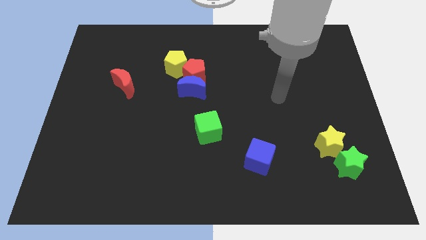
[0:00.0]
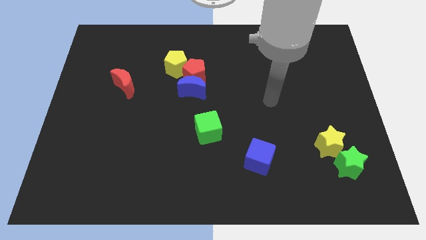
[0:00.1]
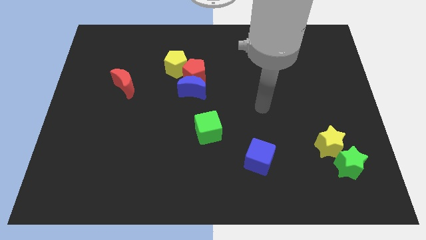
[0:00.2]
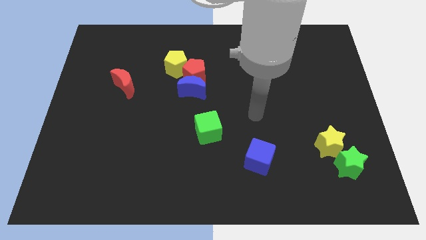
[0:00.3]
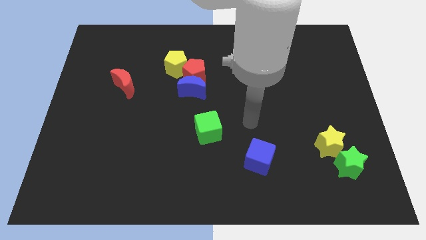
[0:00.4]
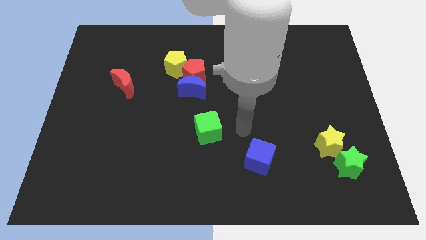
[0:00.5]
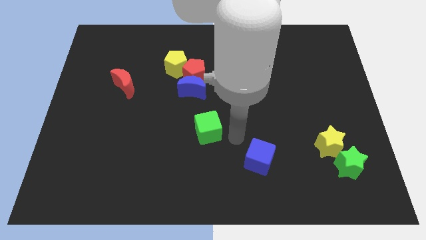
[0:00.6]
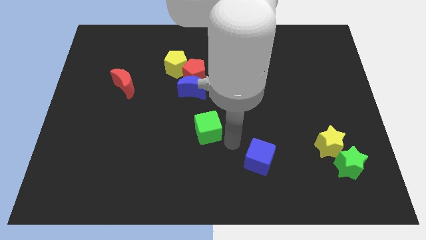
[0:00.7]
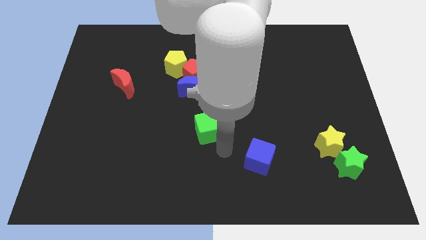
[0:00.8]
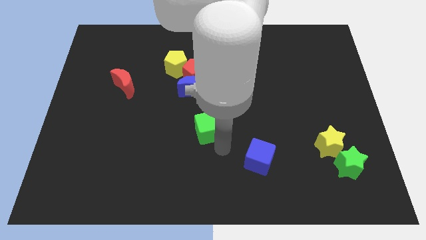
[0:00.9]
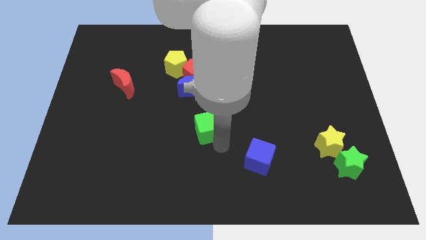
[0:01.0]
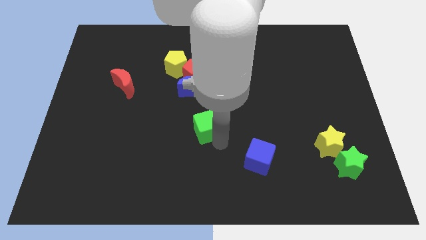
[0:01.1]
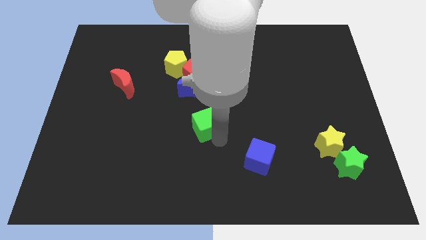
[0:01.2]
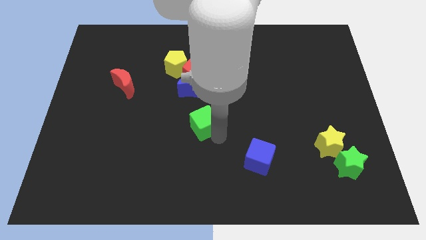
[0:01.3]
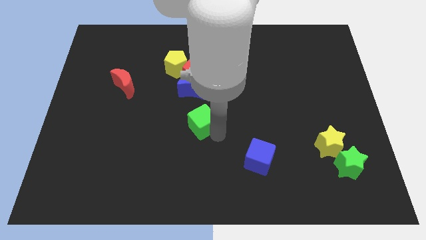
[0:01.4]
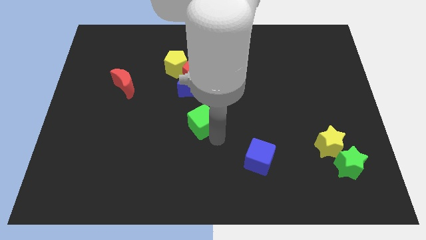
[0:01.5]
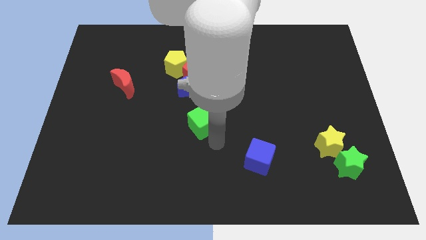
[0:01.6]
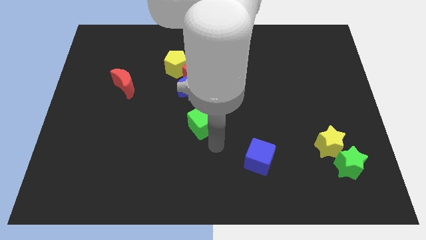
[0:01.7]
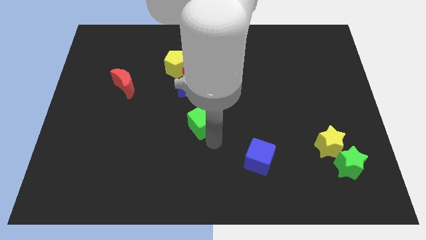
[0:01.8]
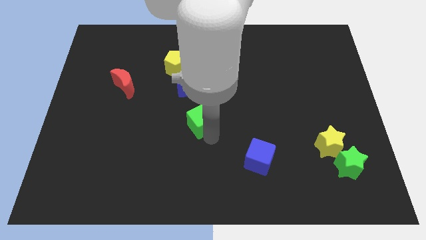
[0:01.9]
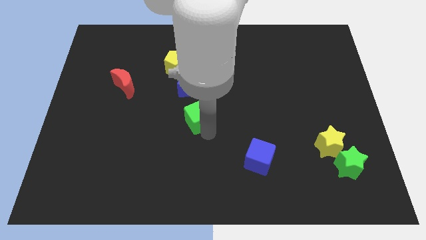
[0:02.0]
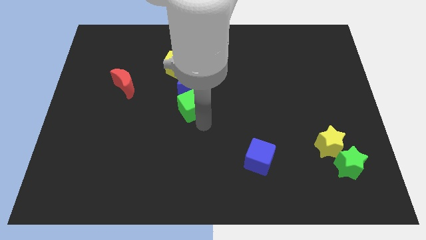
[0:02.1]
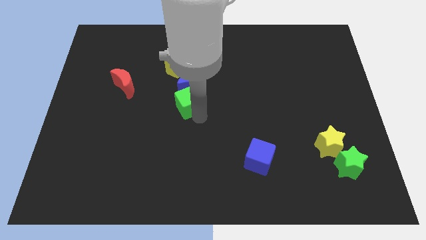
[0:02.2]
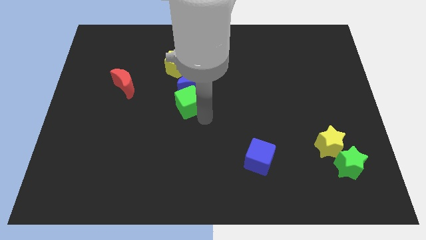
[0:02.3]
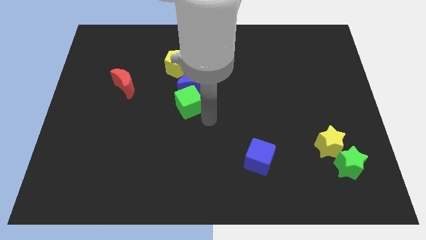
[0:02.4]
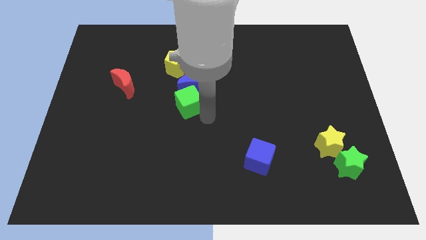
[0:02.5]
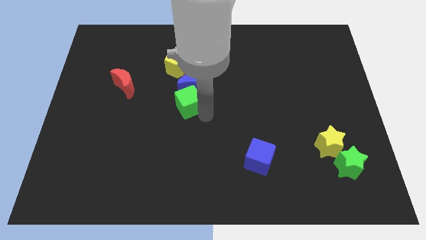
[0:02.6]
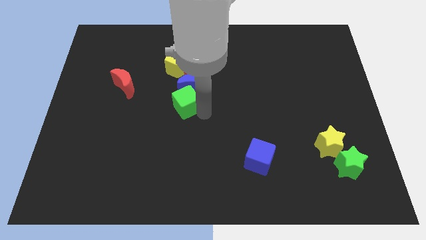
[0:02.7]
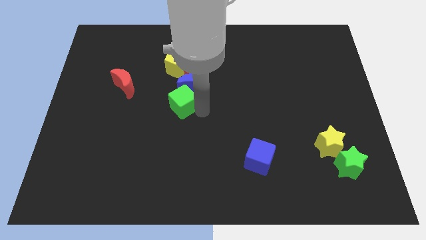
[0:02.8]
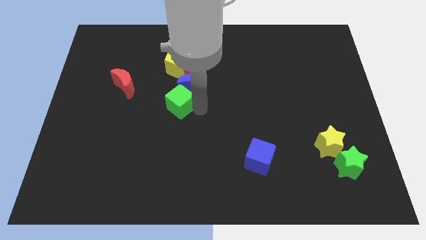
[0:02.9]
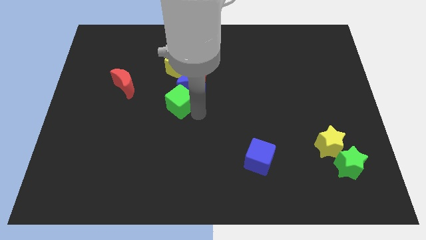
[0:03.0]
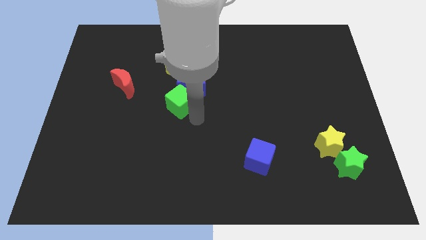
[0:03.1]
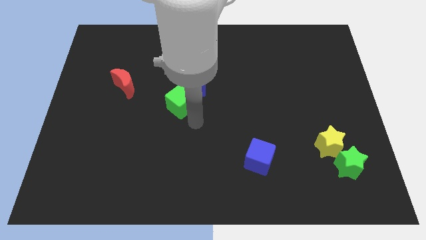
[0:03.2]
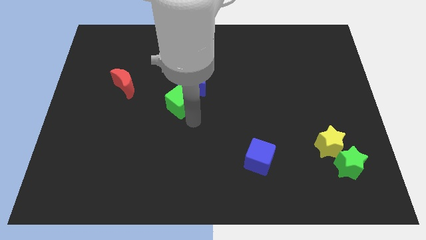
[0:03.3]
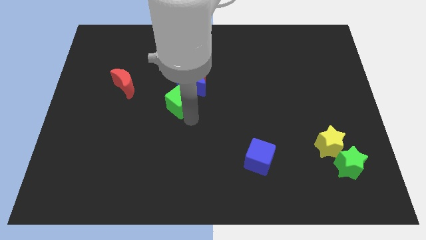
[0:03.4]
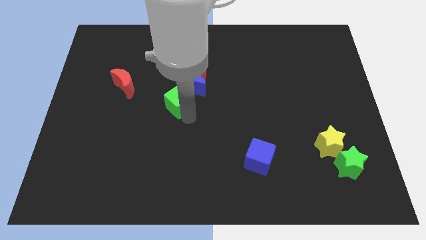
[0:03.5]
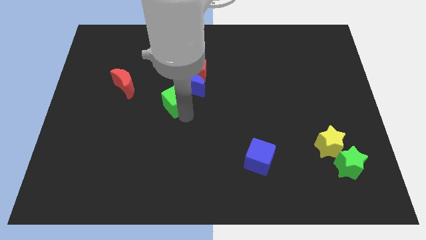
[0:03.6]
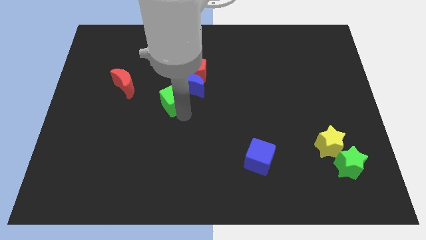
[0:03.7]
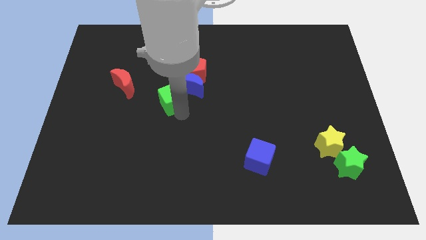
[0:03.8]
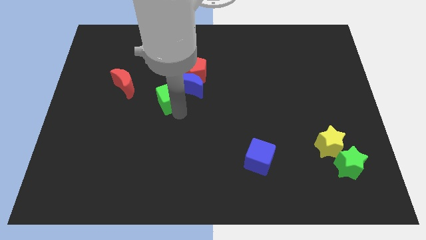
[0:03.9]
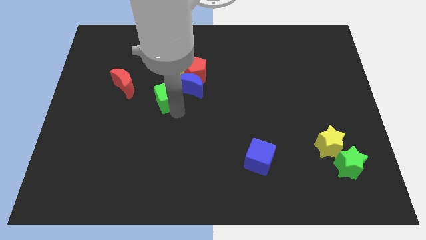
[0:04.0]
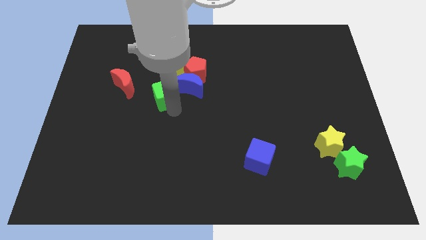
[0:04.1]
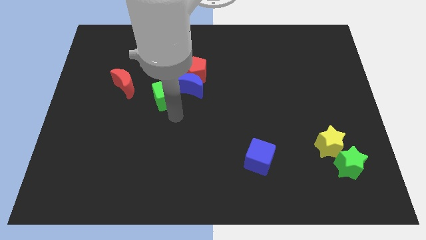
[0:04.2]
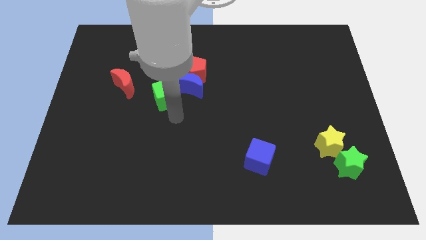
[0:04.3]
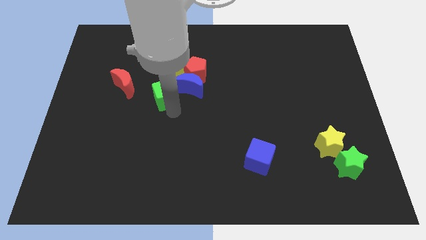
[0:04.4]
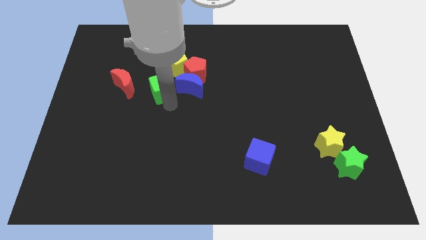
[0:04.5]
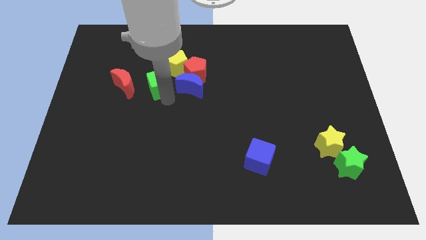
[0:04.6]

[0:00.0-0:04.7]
push the green cube just left of the red pentagon

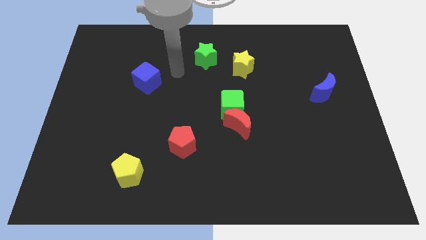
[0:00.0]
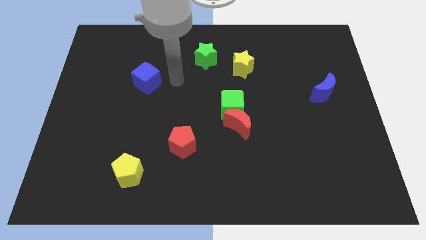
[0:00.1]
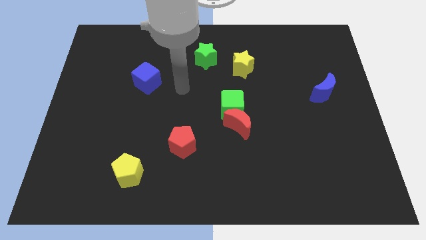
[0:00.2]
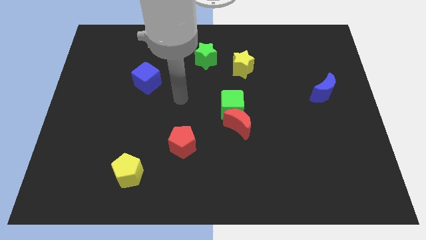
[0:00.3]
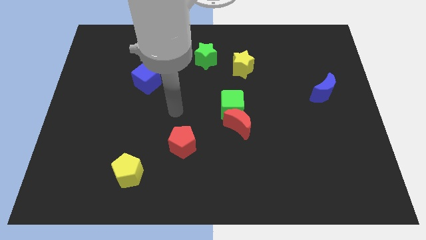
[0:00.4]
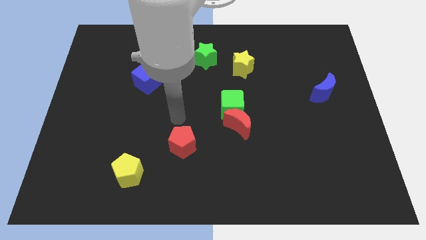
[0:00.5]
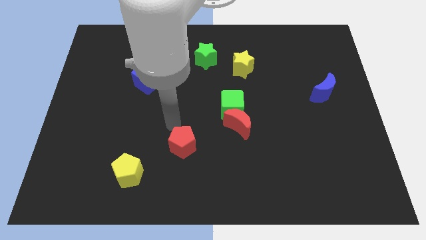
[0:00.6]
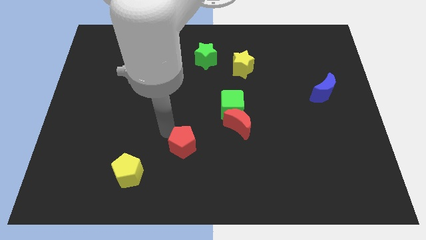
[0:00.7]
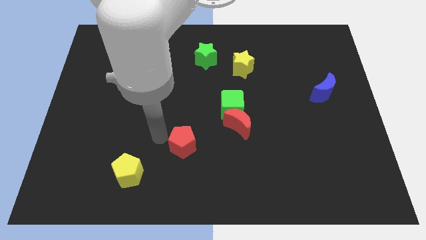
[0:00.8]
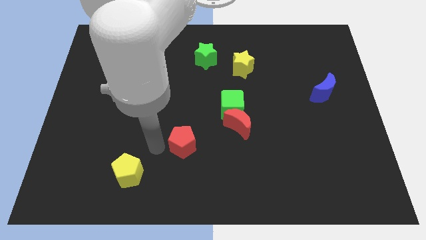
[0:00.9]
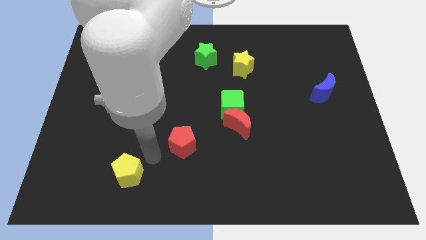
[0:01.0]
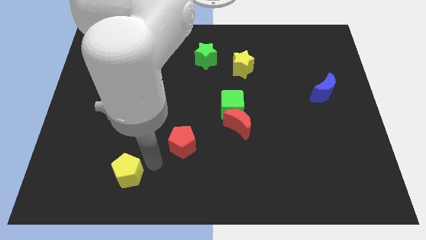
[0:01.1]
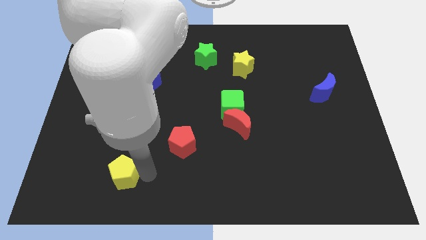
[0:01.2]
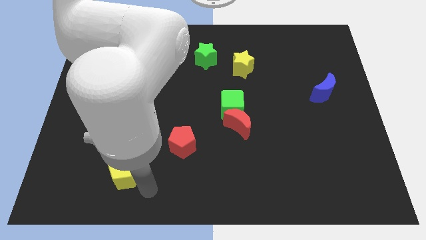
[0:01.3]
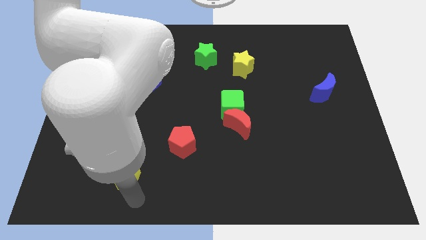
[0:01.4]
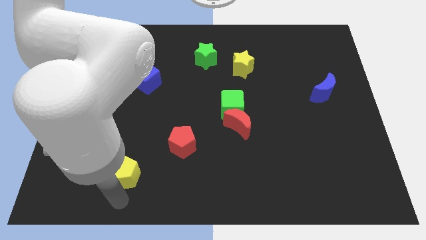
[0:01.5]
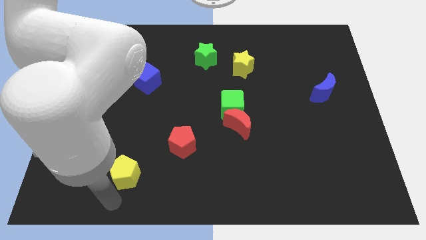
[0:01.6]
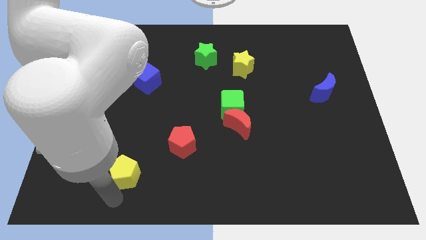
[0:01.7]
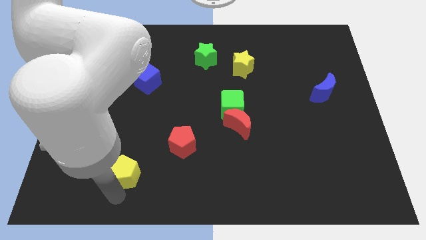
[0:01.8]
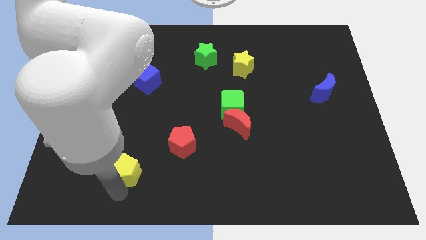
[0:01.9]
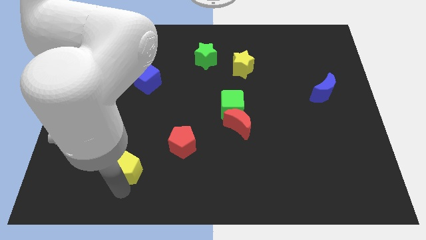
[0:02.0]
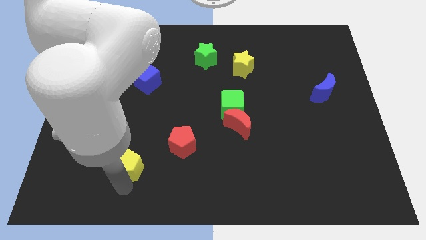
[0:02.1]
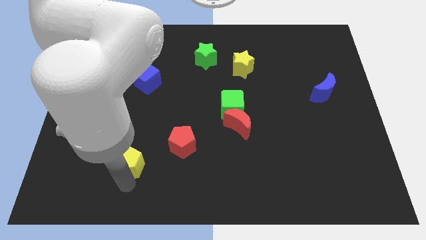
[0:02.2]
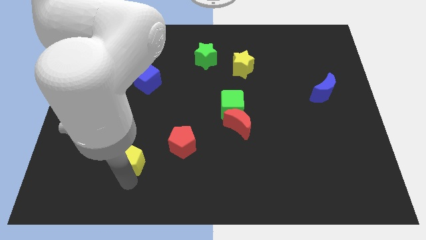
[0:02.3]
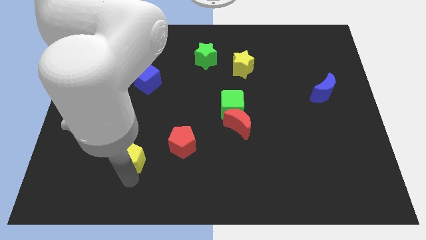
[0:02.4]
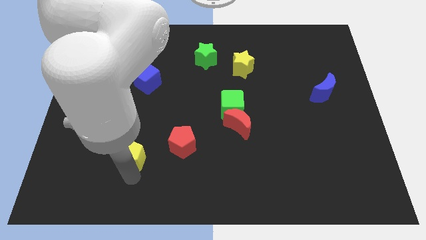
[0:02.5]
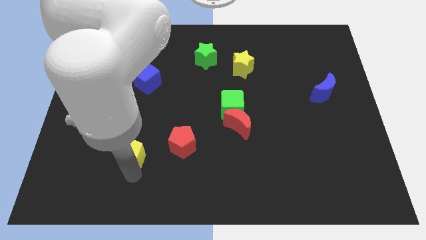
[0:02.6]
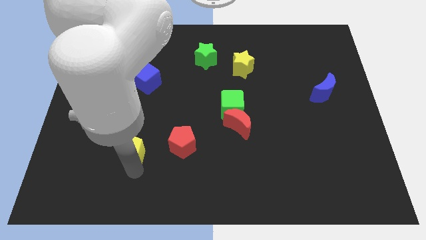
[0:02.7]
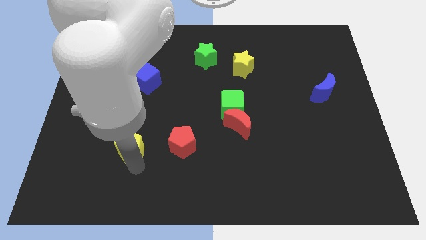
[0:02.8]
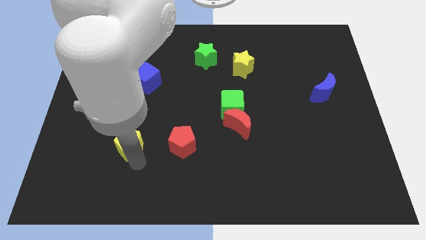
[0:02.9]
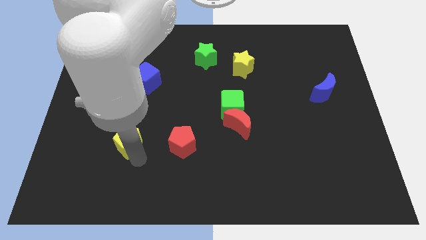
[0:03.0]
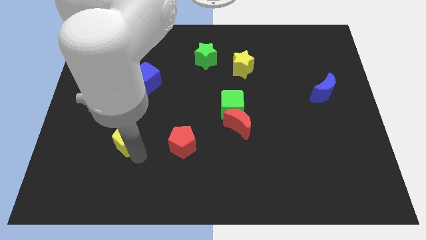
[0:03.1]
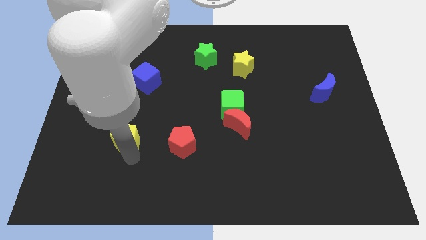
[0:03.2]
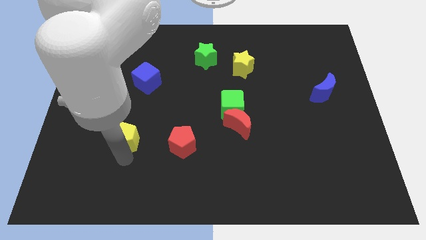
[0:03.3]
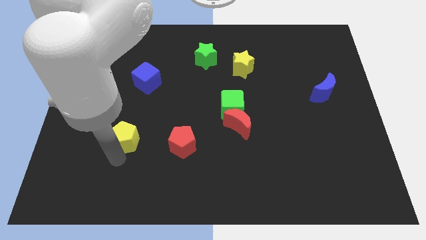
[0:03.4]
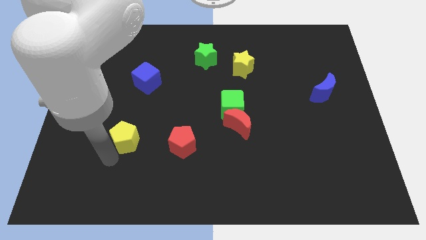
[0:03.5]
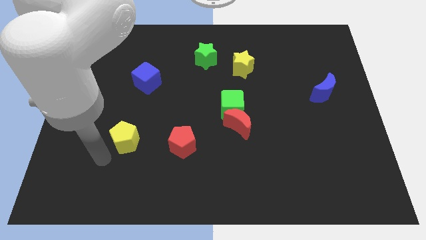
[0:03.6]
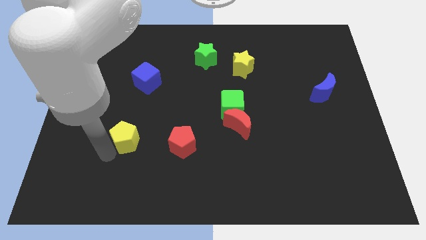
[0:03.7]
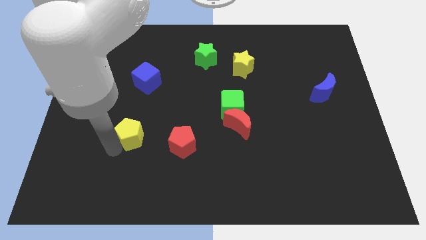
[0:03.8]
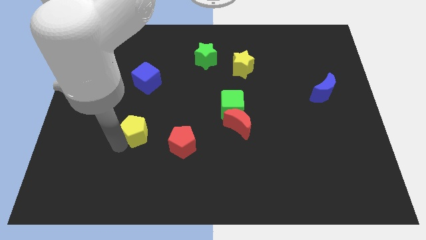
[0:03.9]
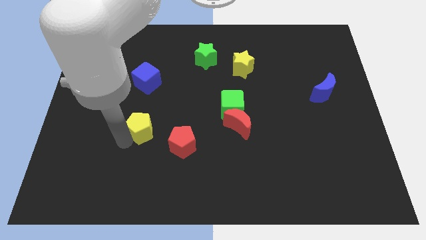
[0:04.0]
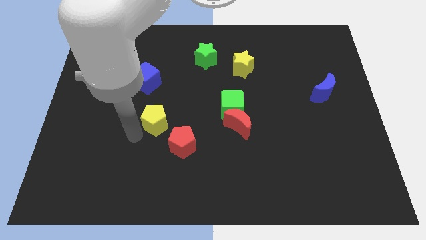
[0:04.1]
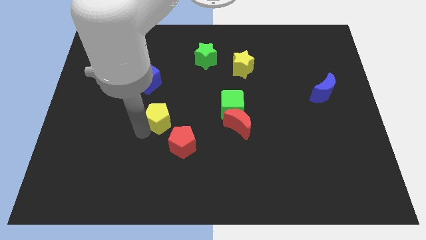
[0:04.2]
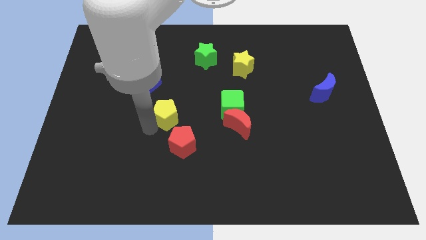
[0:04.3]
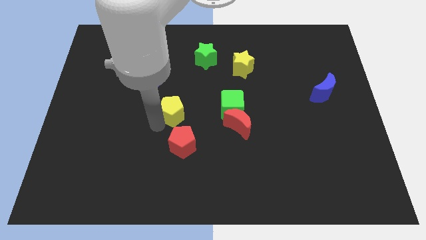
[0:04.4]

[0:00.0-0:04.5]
push the yellow pentagon diagonally down and to the right of the blue cube
